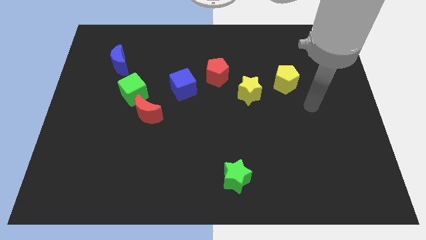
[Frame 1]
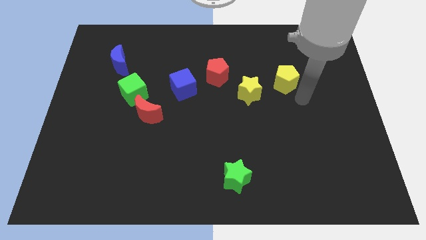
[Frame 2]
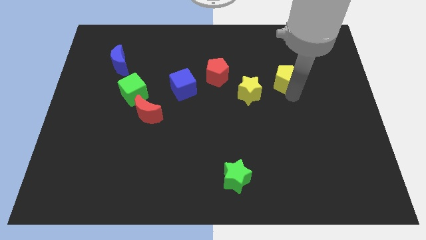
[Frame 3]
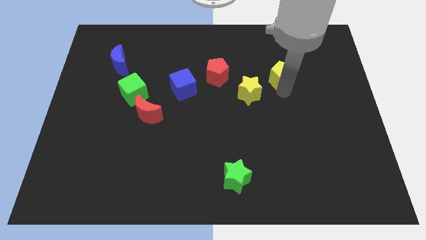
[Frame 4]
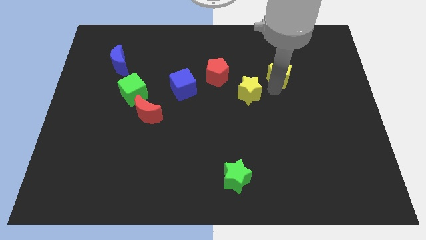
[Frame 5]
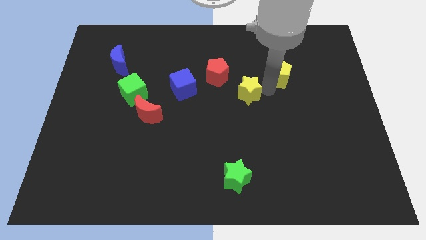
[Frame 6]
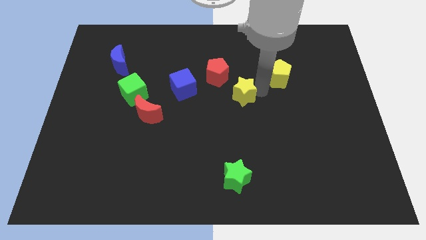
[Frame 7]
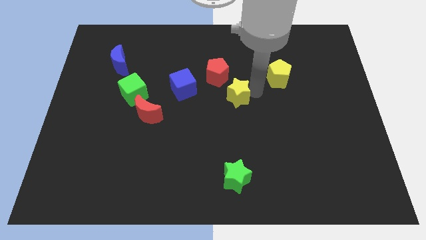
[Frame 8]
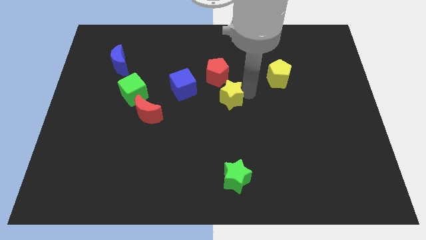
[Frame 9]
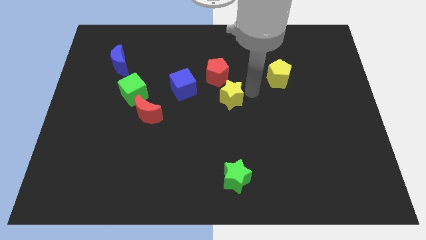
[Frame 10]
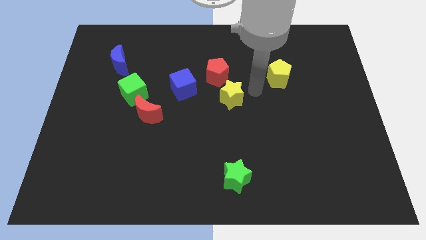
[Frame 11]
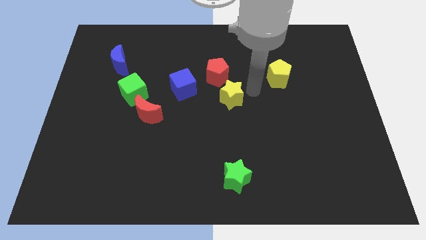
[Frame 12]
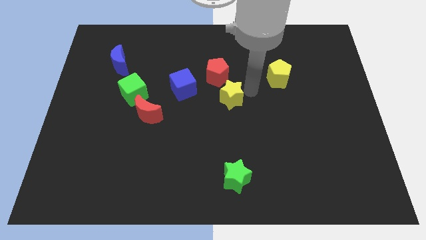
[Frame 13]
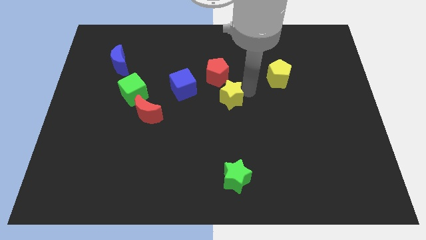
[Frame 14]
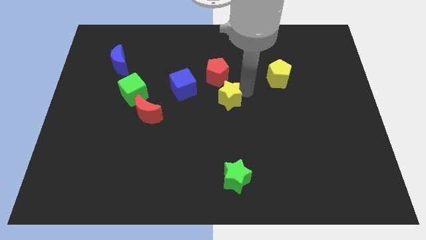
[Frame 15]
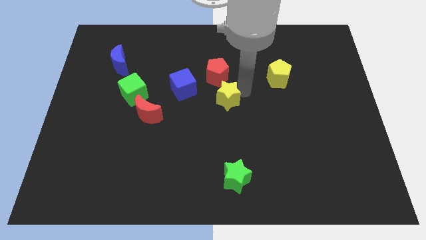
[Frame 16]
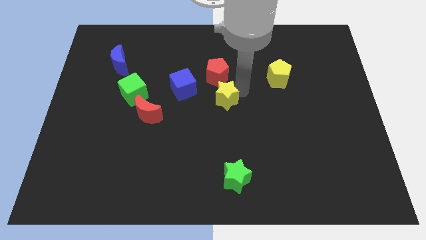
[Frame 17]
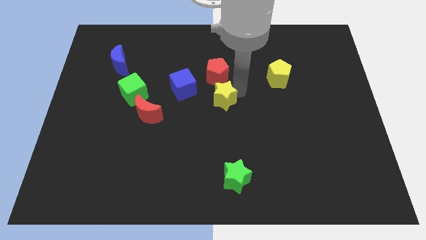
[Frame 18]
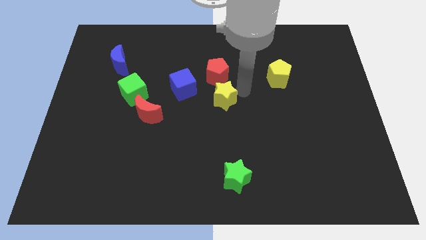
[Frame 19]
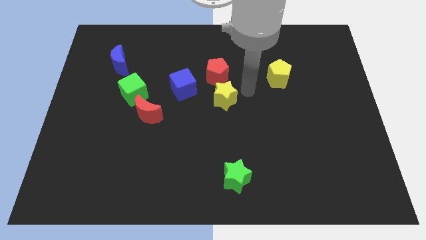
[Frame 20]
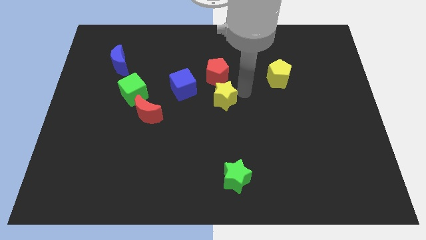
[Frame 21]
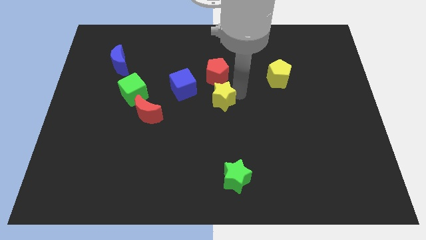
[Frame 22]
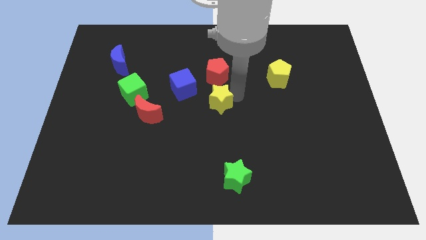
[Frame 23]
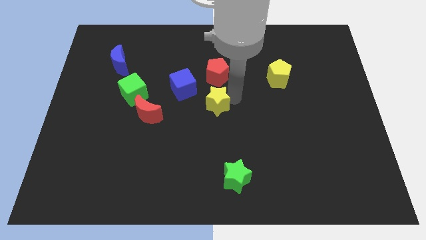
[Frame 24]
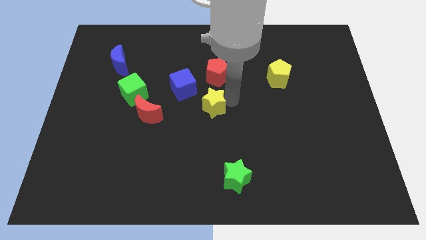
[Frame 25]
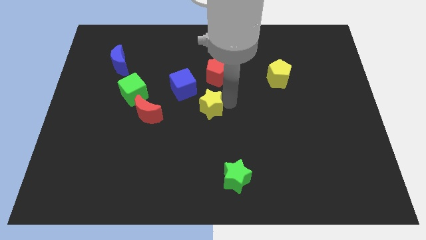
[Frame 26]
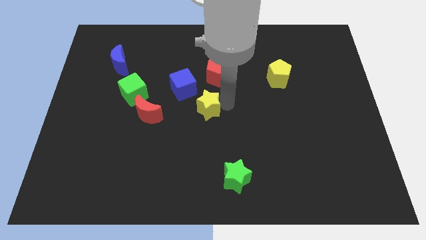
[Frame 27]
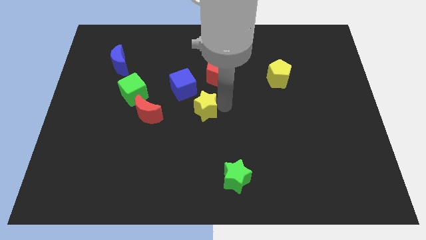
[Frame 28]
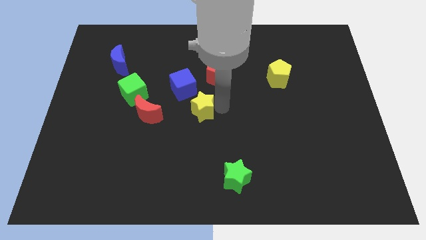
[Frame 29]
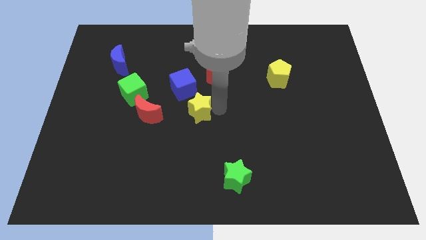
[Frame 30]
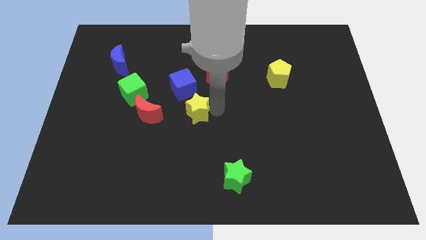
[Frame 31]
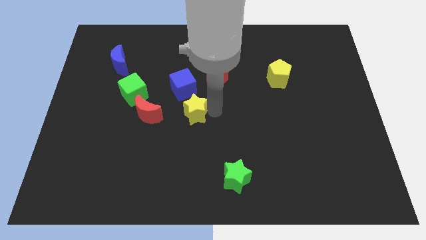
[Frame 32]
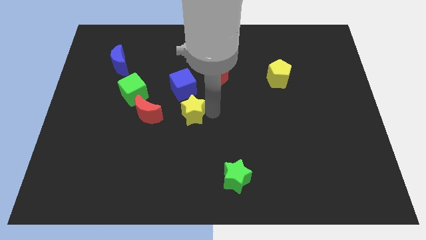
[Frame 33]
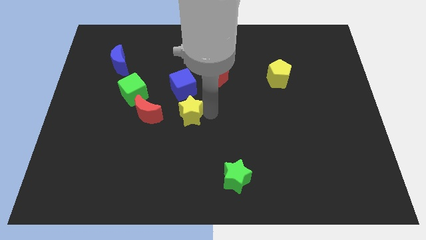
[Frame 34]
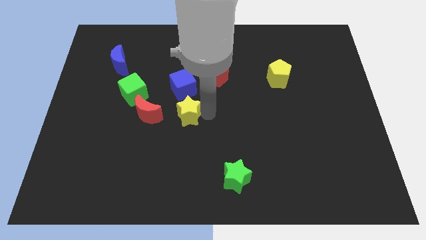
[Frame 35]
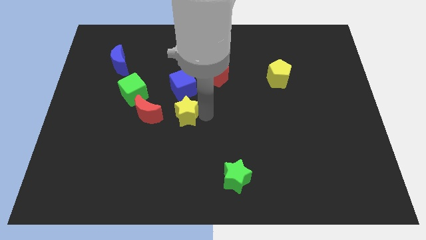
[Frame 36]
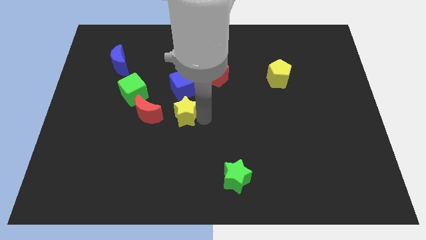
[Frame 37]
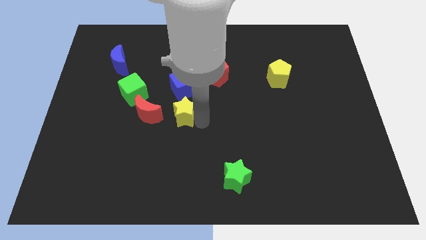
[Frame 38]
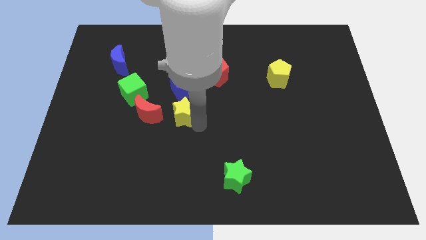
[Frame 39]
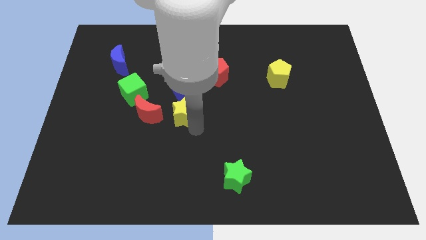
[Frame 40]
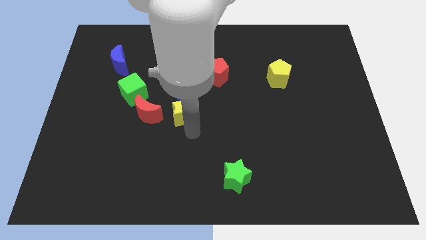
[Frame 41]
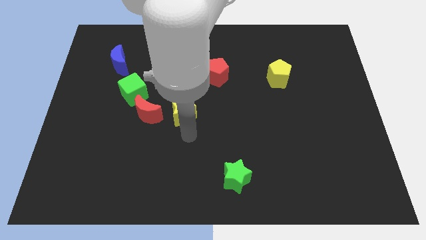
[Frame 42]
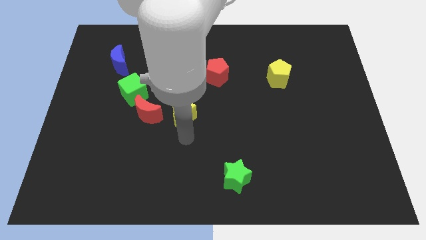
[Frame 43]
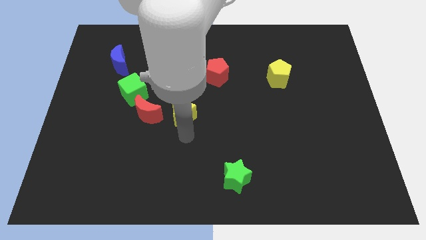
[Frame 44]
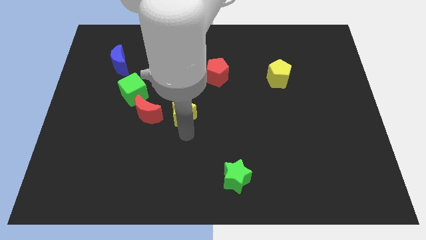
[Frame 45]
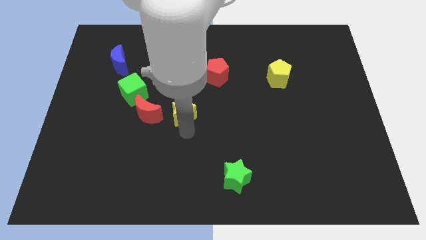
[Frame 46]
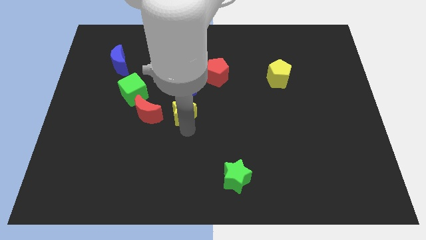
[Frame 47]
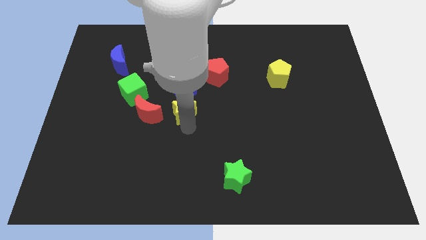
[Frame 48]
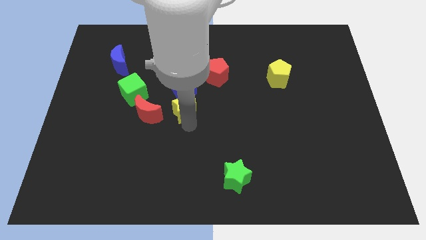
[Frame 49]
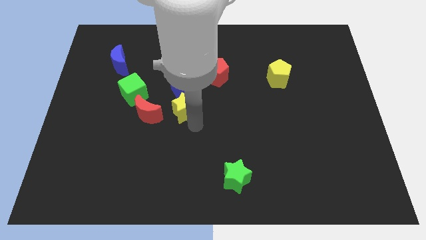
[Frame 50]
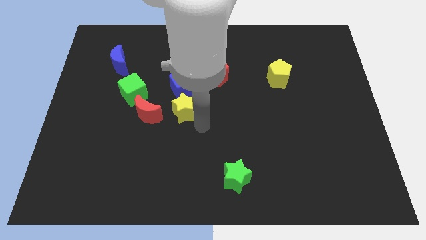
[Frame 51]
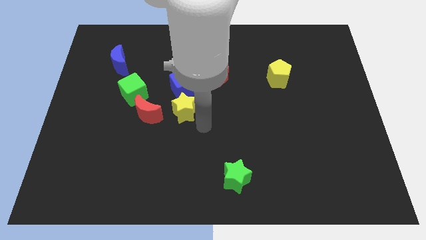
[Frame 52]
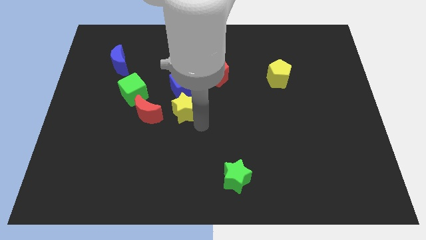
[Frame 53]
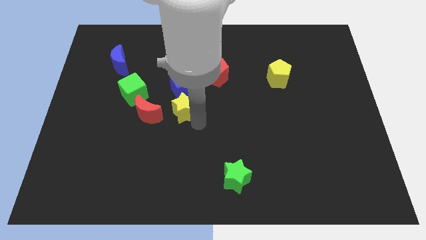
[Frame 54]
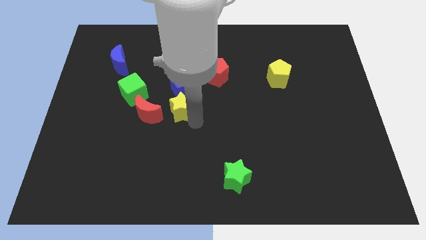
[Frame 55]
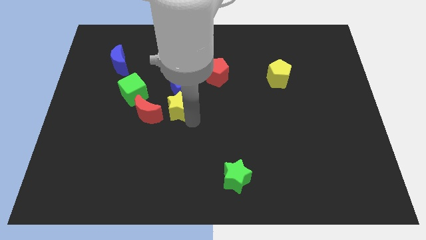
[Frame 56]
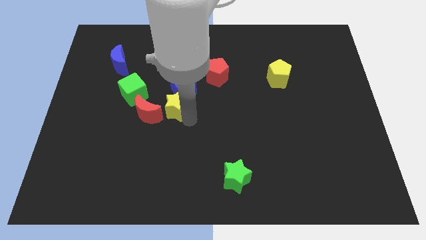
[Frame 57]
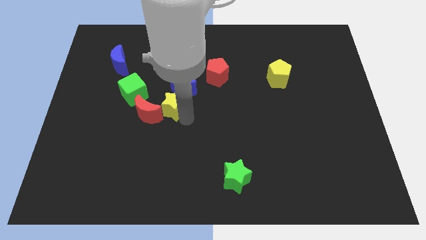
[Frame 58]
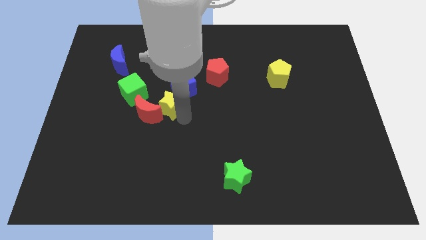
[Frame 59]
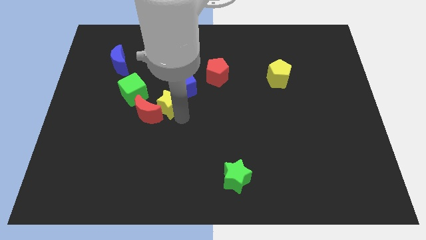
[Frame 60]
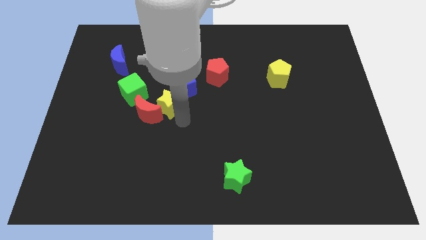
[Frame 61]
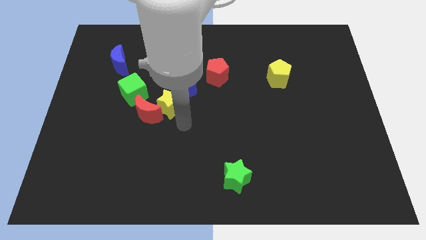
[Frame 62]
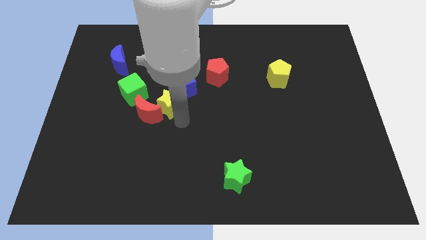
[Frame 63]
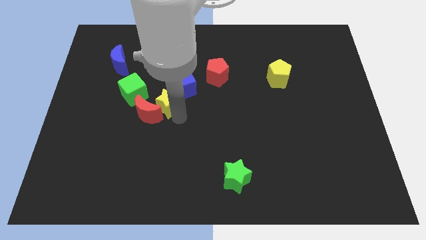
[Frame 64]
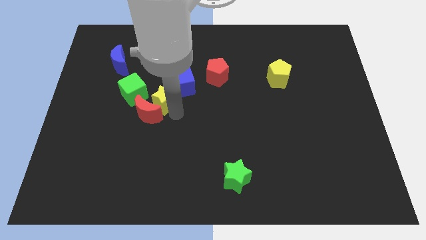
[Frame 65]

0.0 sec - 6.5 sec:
push the yellow star to the left

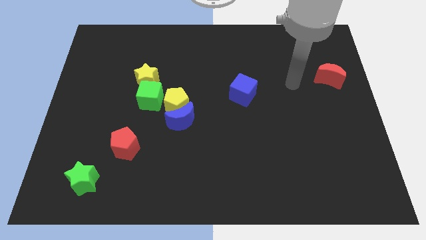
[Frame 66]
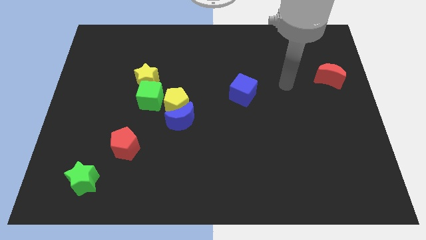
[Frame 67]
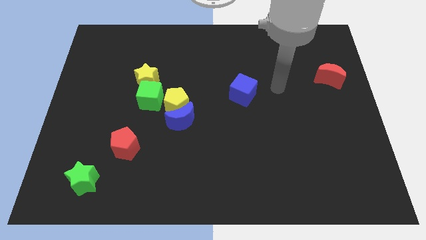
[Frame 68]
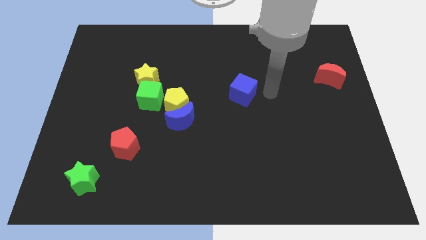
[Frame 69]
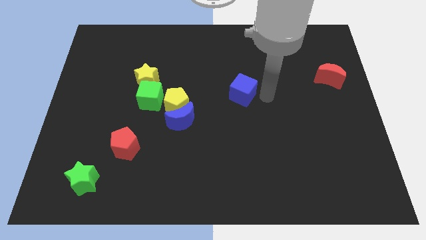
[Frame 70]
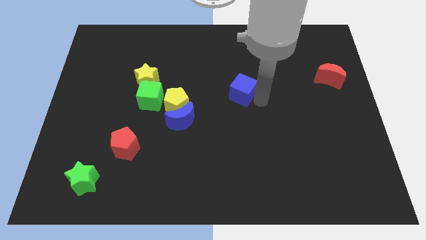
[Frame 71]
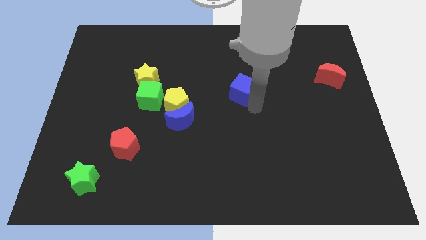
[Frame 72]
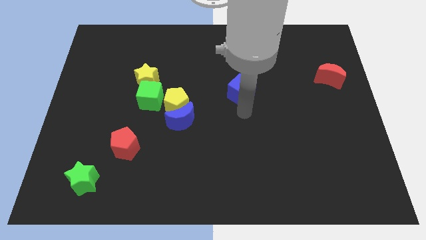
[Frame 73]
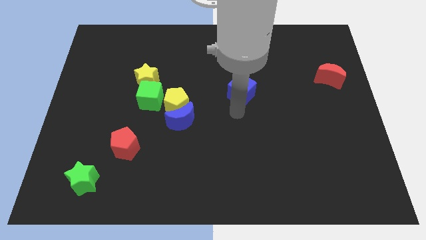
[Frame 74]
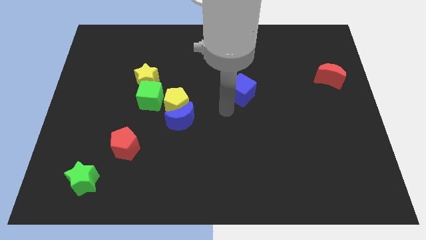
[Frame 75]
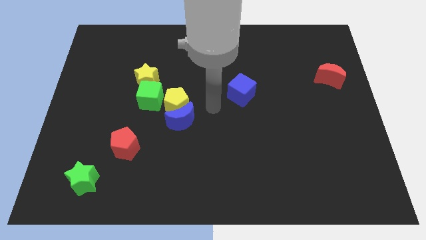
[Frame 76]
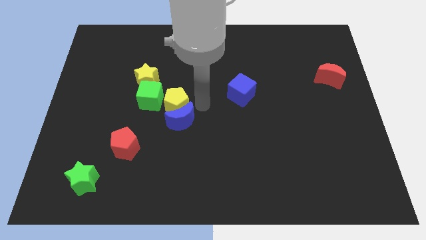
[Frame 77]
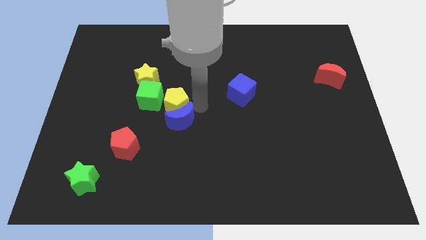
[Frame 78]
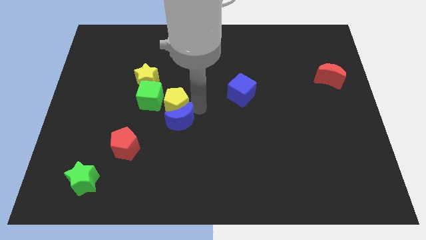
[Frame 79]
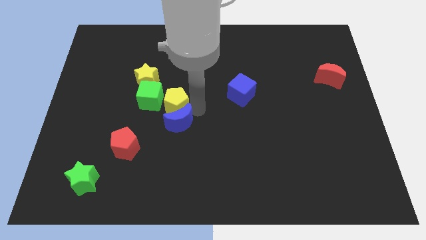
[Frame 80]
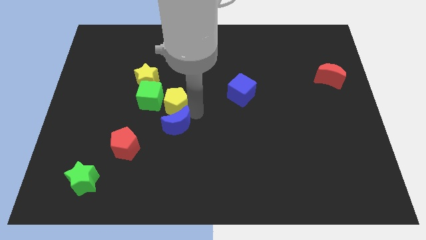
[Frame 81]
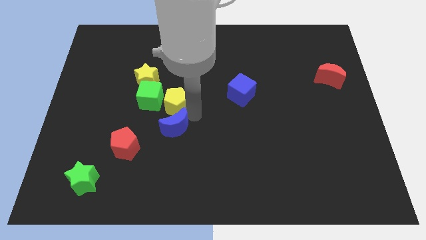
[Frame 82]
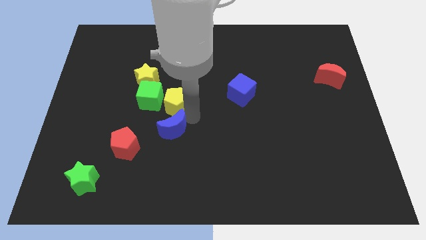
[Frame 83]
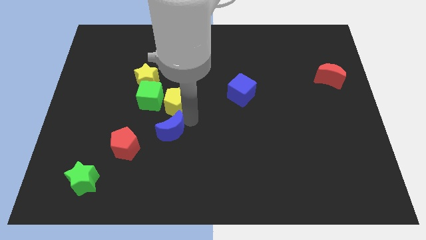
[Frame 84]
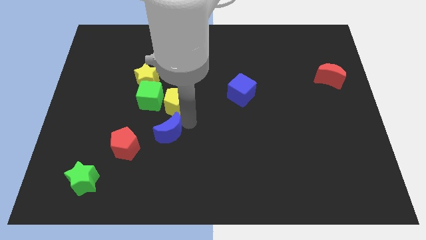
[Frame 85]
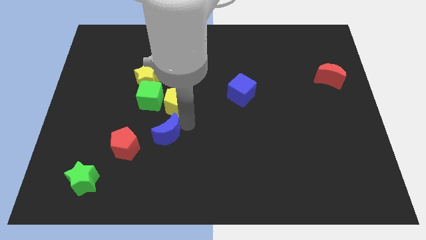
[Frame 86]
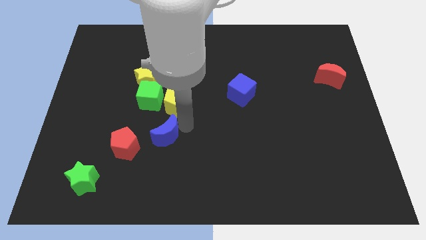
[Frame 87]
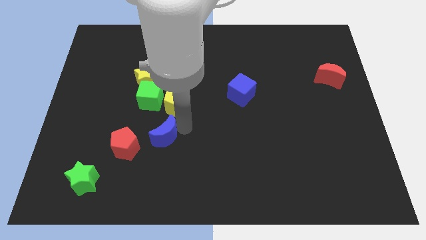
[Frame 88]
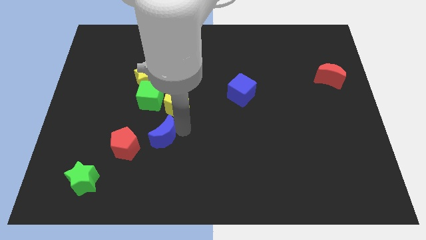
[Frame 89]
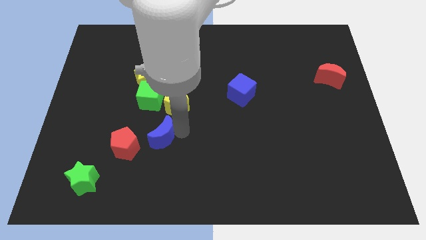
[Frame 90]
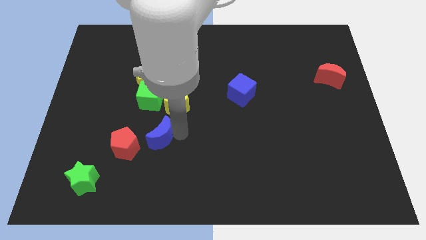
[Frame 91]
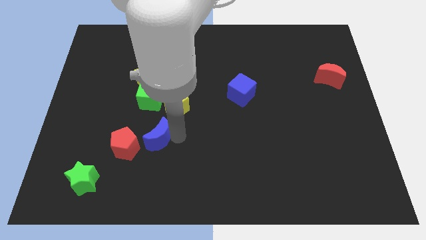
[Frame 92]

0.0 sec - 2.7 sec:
slightly push the blue moon down and to the left diagonally
